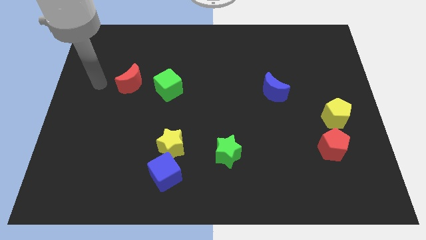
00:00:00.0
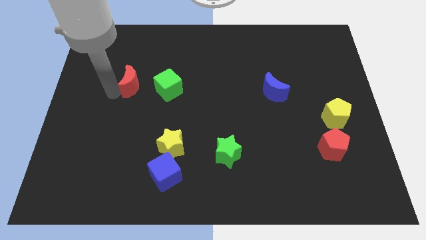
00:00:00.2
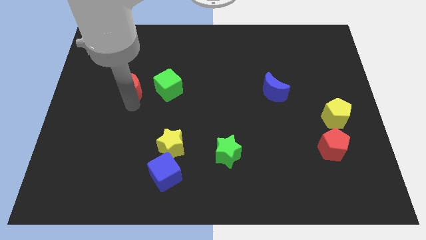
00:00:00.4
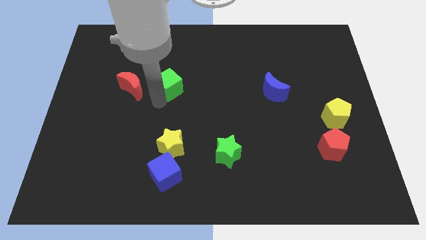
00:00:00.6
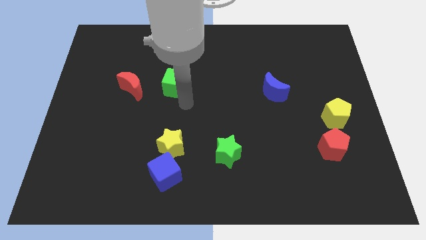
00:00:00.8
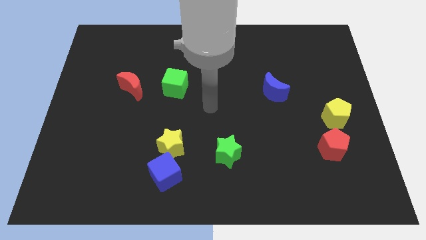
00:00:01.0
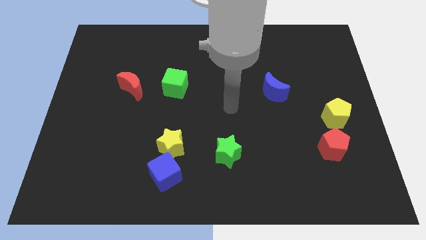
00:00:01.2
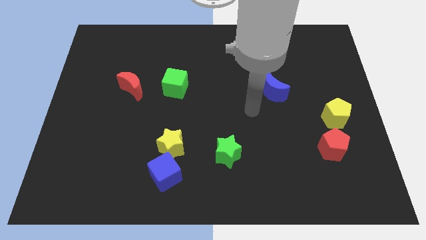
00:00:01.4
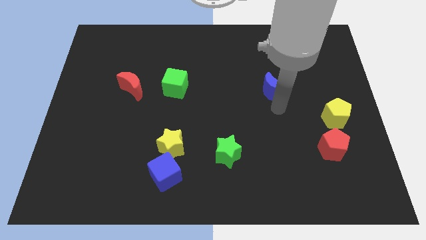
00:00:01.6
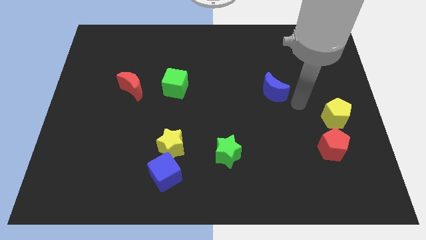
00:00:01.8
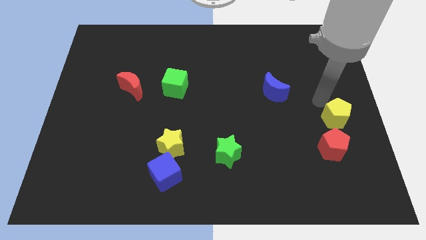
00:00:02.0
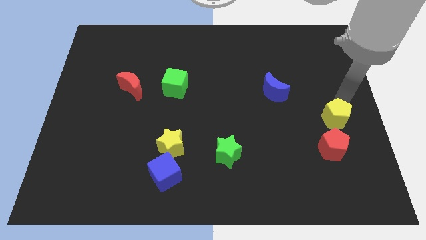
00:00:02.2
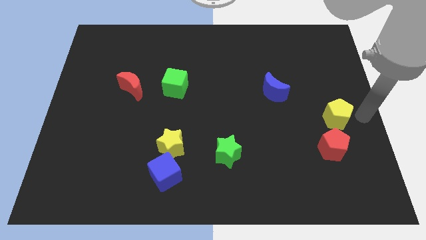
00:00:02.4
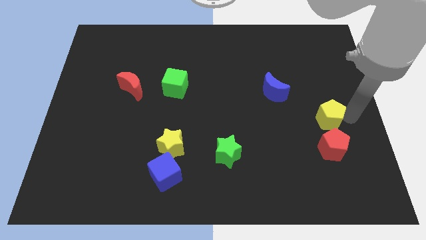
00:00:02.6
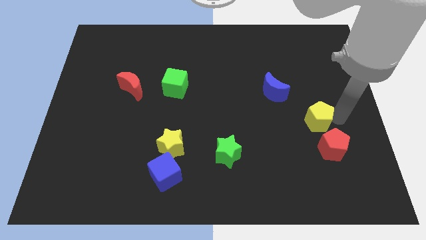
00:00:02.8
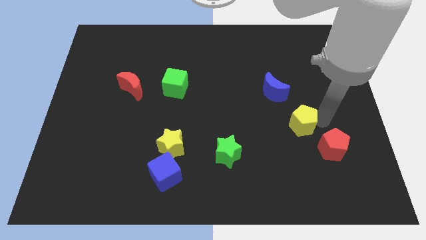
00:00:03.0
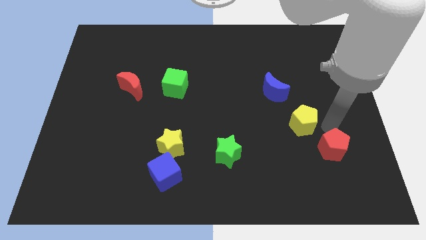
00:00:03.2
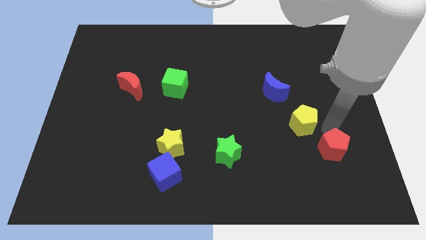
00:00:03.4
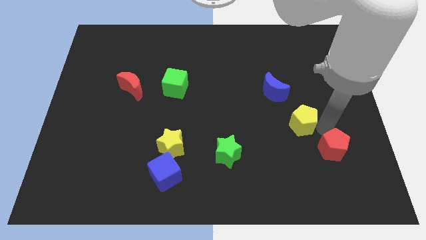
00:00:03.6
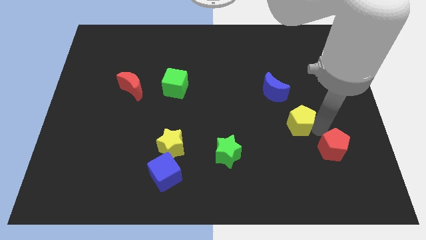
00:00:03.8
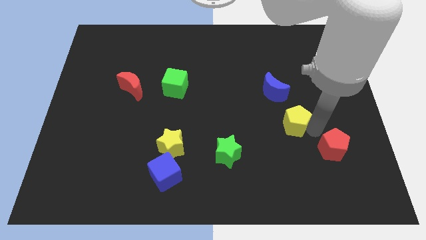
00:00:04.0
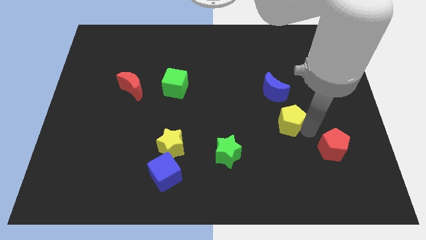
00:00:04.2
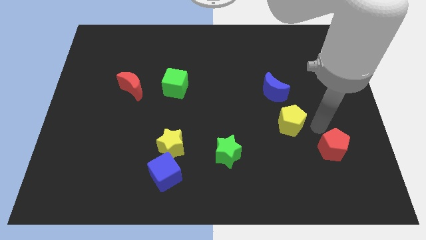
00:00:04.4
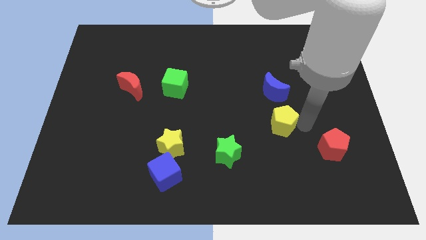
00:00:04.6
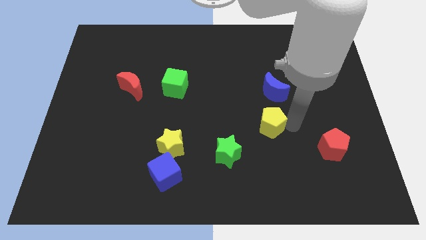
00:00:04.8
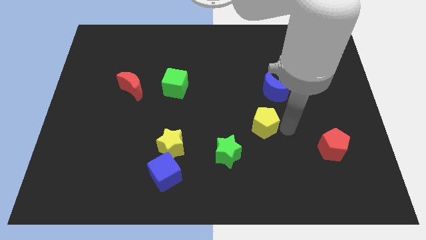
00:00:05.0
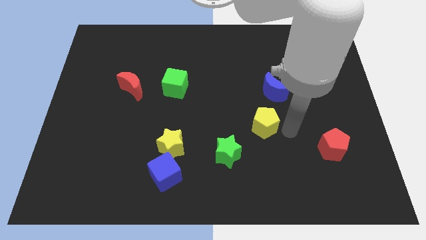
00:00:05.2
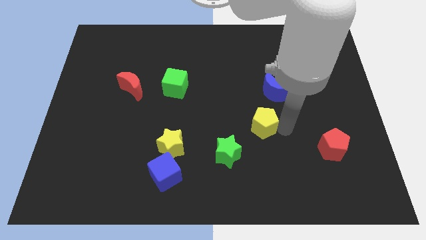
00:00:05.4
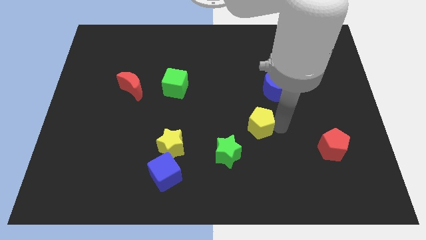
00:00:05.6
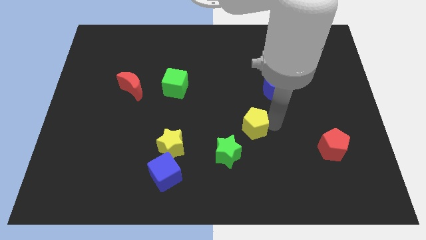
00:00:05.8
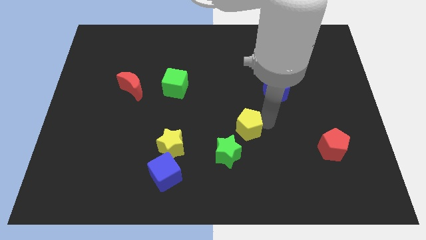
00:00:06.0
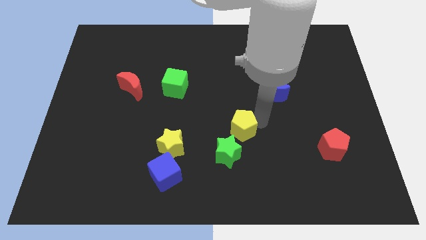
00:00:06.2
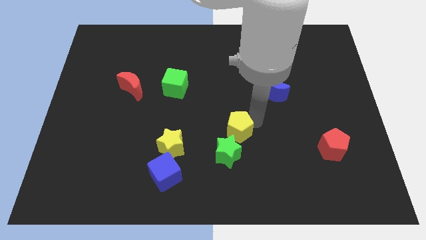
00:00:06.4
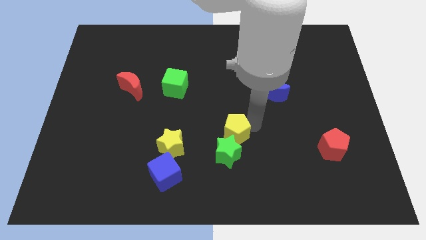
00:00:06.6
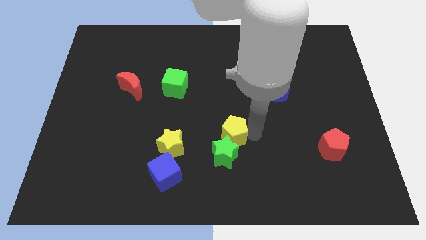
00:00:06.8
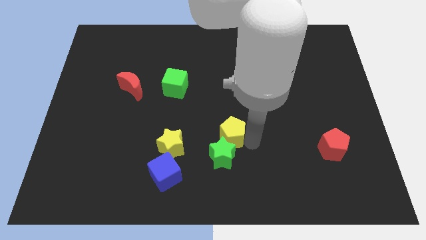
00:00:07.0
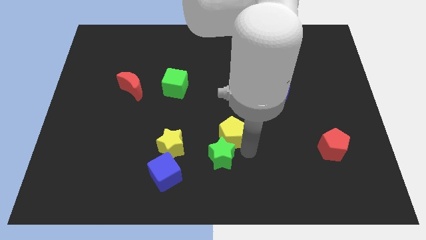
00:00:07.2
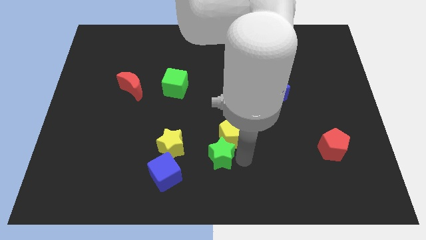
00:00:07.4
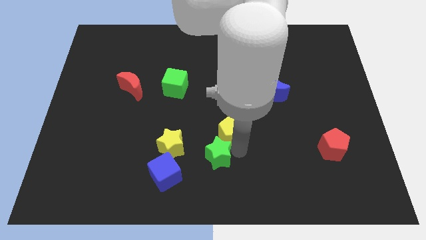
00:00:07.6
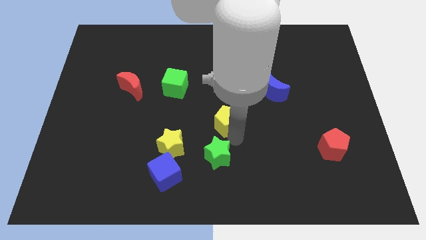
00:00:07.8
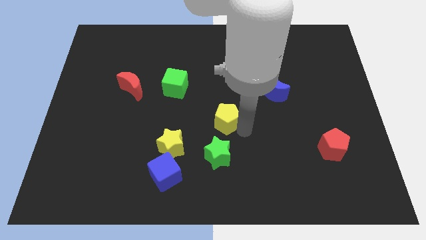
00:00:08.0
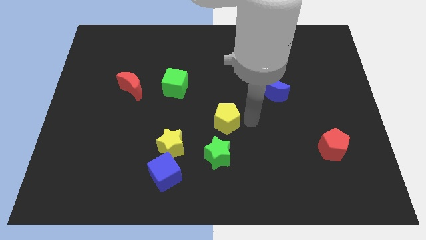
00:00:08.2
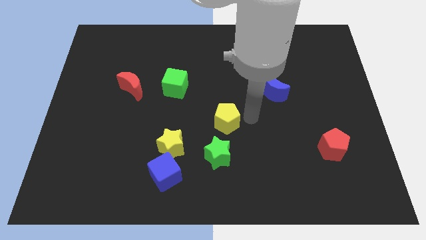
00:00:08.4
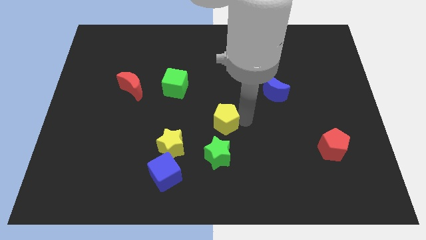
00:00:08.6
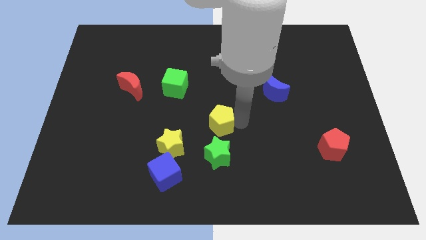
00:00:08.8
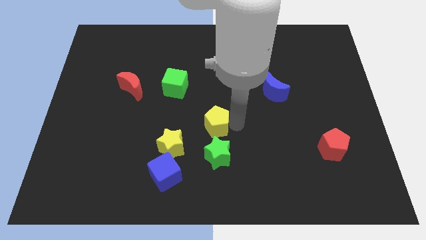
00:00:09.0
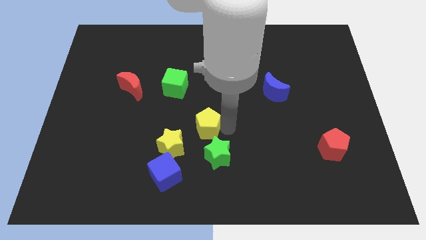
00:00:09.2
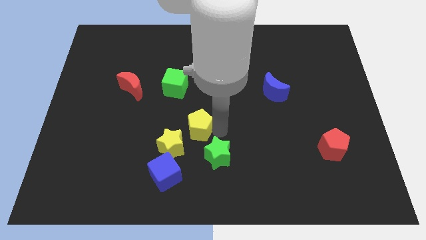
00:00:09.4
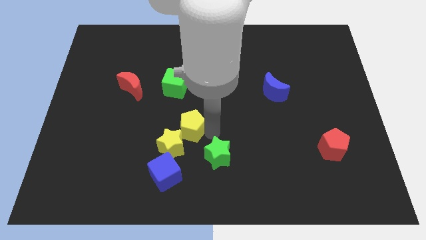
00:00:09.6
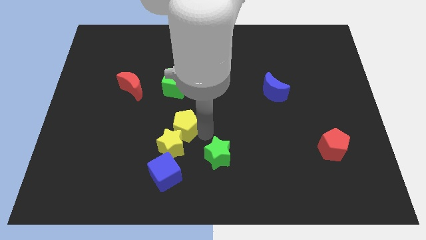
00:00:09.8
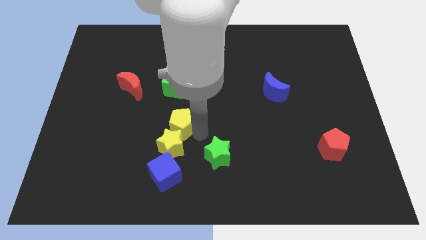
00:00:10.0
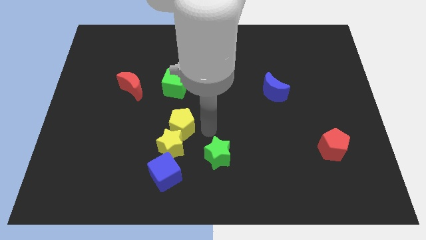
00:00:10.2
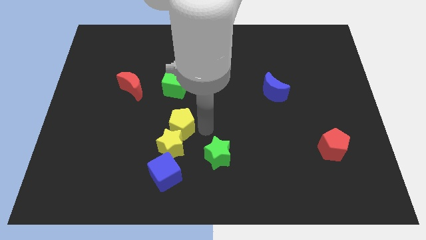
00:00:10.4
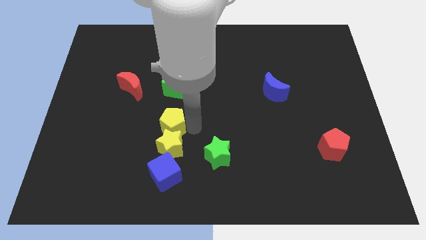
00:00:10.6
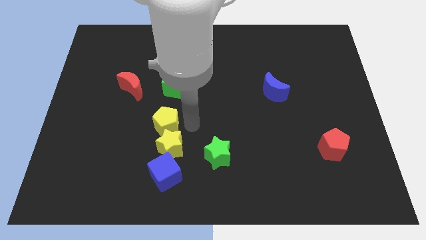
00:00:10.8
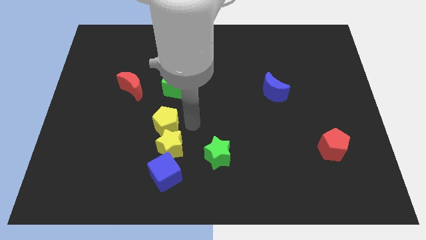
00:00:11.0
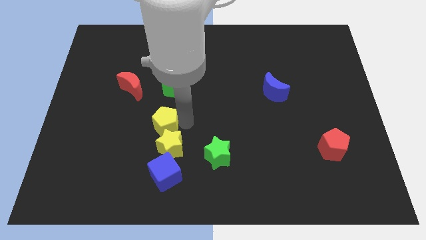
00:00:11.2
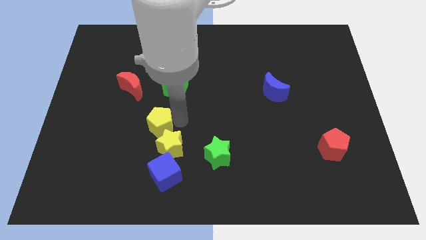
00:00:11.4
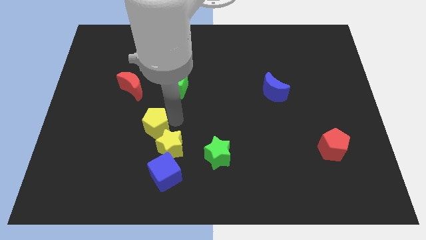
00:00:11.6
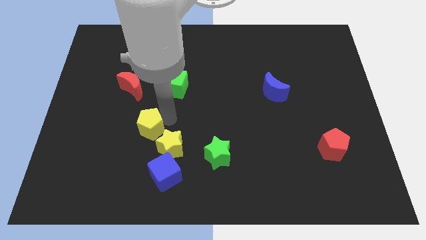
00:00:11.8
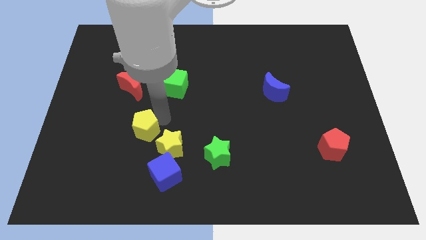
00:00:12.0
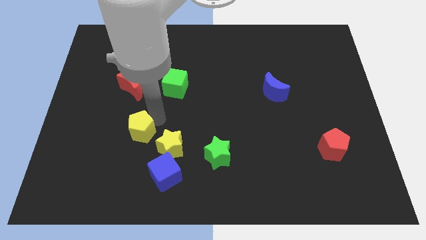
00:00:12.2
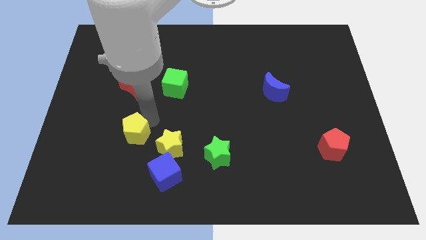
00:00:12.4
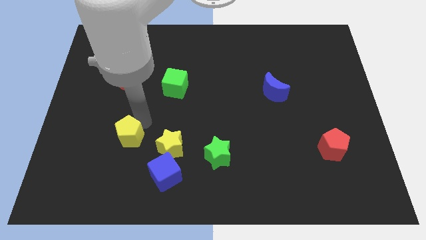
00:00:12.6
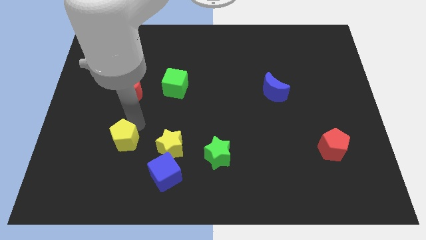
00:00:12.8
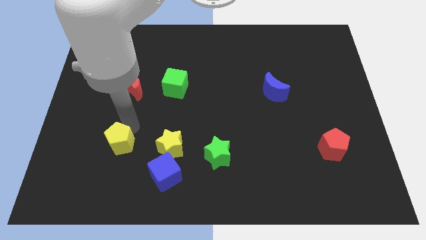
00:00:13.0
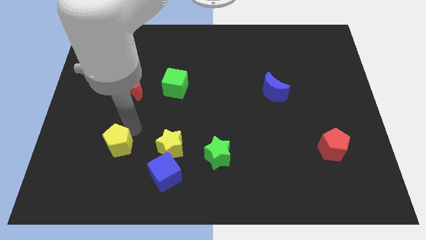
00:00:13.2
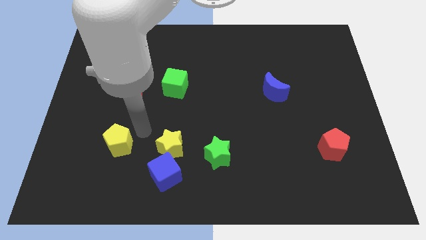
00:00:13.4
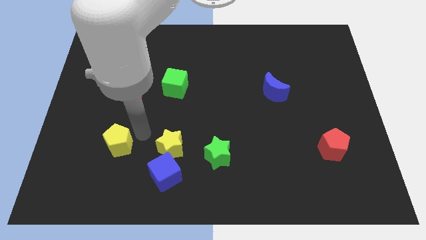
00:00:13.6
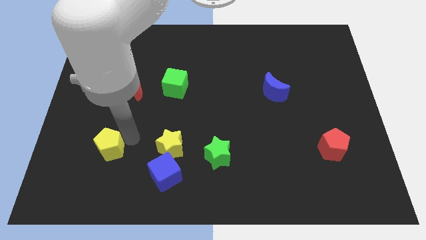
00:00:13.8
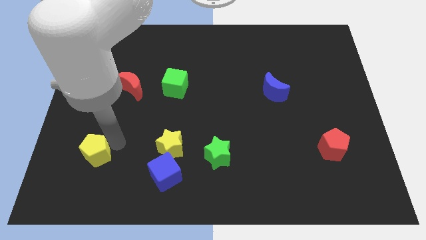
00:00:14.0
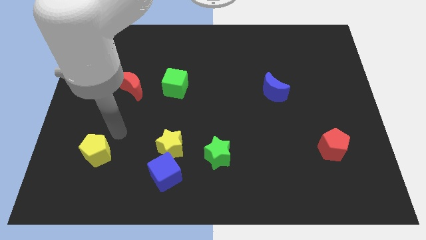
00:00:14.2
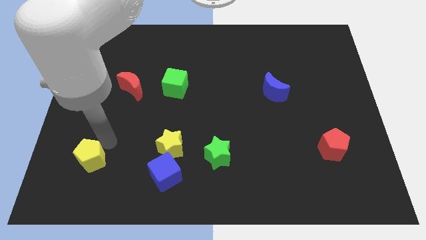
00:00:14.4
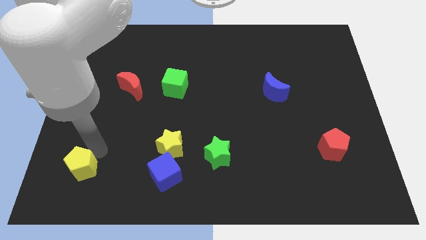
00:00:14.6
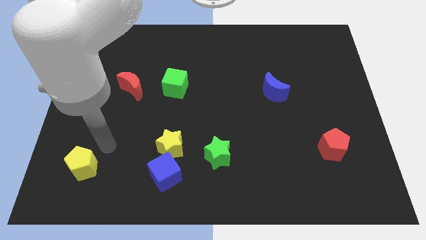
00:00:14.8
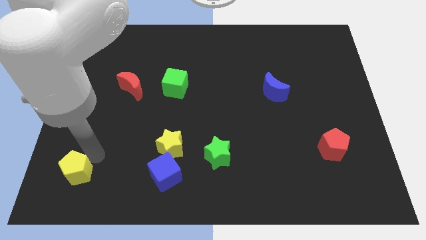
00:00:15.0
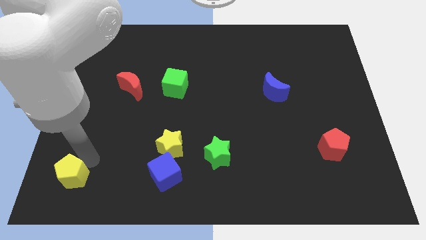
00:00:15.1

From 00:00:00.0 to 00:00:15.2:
slide the yellow pentagon to the lower left corner
